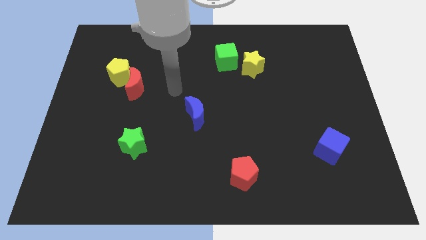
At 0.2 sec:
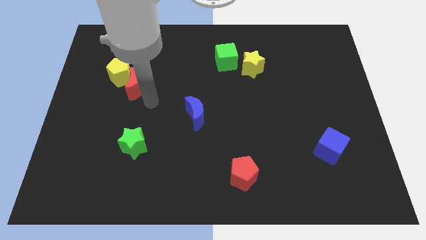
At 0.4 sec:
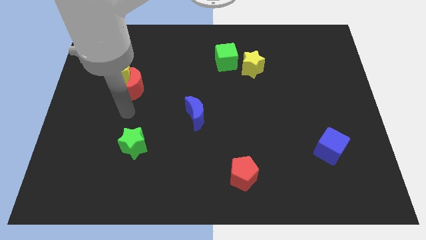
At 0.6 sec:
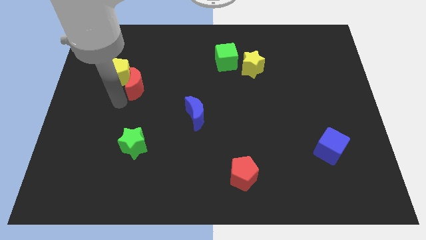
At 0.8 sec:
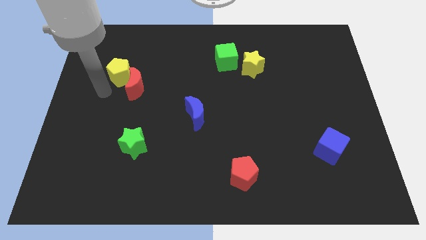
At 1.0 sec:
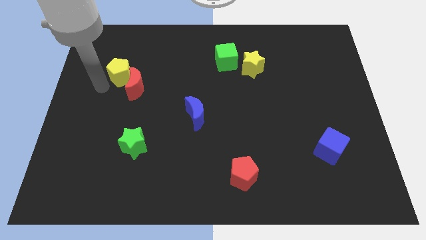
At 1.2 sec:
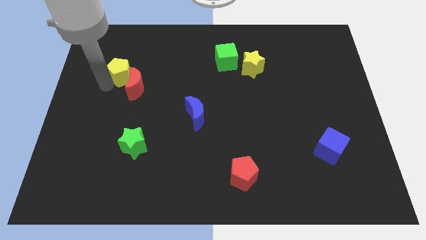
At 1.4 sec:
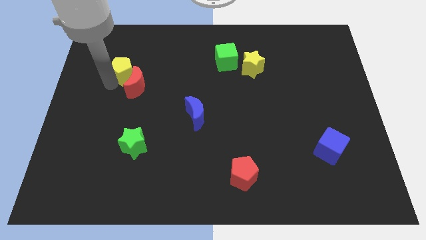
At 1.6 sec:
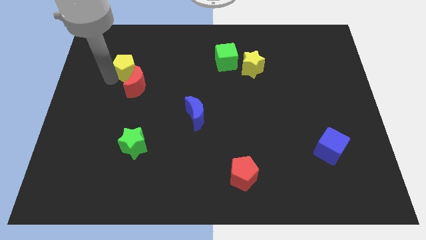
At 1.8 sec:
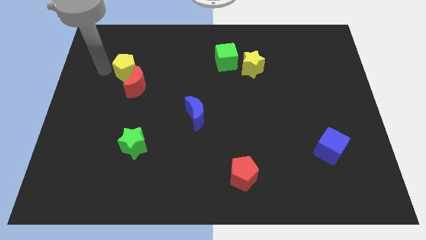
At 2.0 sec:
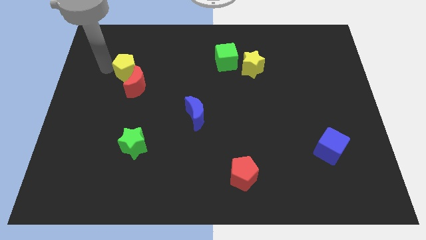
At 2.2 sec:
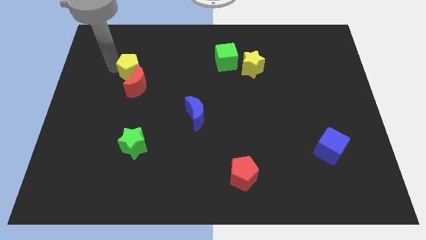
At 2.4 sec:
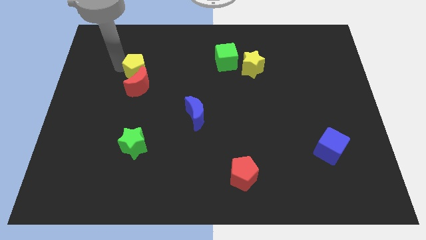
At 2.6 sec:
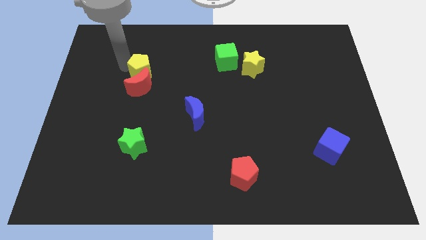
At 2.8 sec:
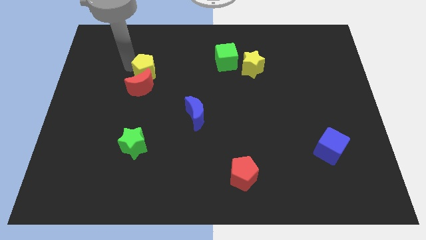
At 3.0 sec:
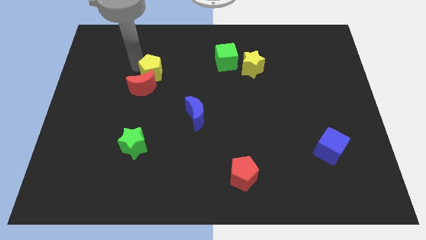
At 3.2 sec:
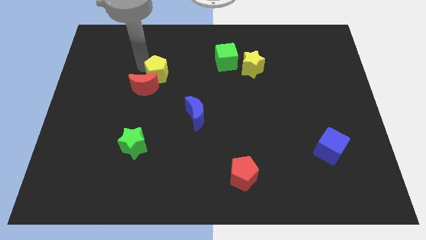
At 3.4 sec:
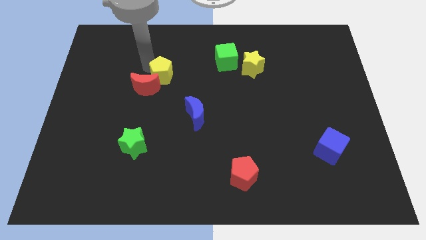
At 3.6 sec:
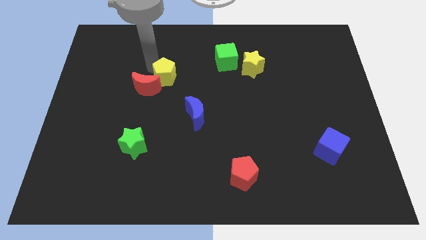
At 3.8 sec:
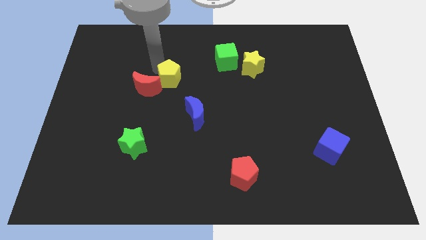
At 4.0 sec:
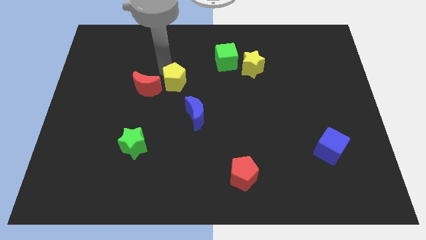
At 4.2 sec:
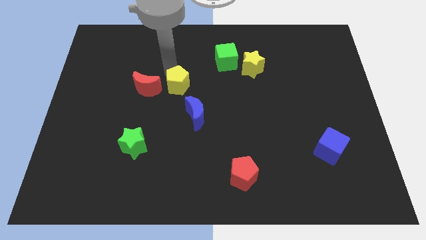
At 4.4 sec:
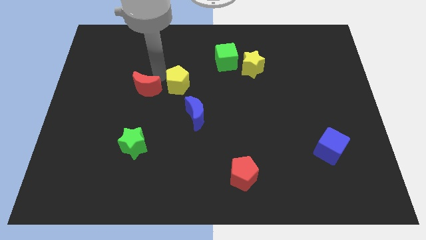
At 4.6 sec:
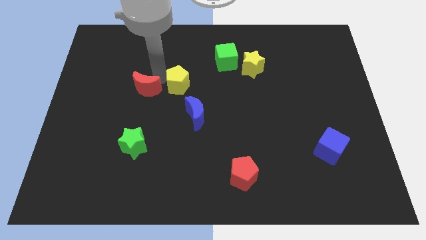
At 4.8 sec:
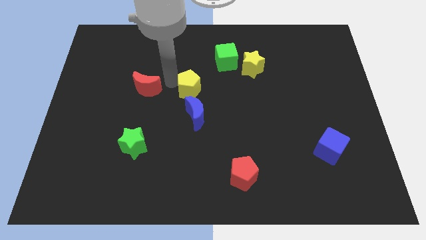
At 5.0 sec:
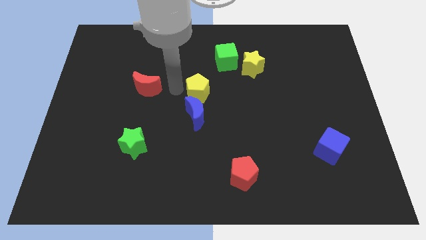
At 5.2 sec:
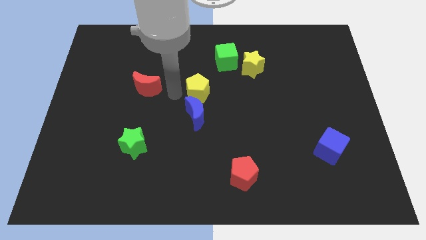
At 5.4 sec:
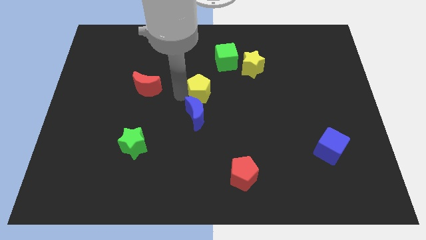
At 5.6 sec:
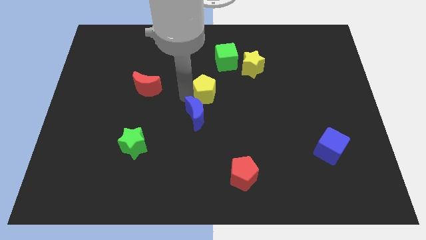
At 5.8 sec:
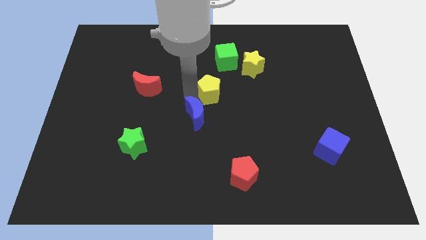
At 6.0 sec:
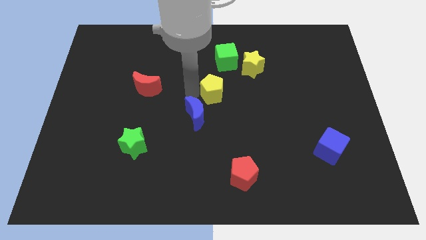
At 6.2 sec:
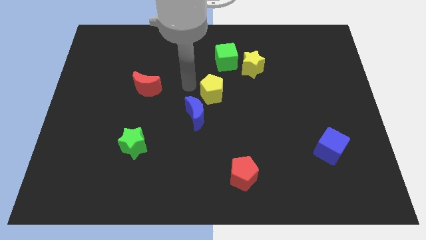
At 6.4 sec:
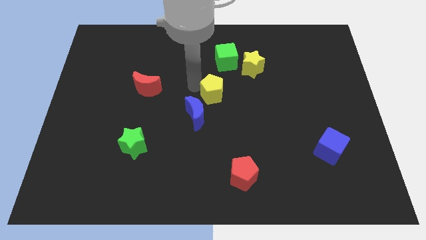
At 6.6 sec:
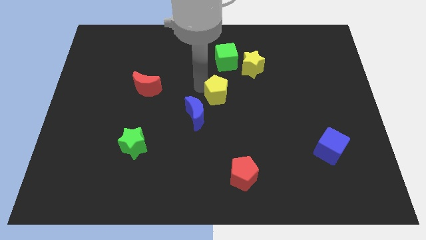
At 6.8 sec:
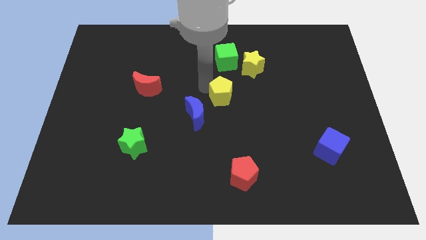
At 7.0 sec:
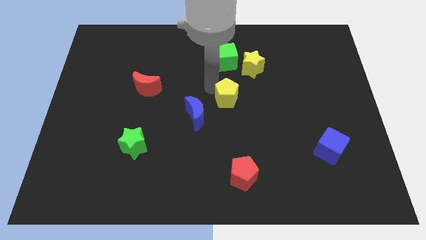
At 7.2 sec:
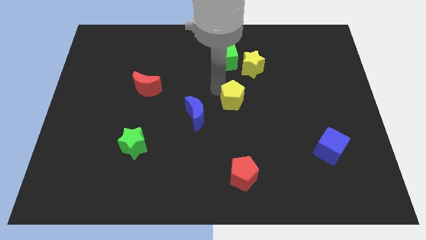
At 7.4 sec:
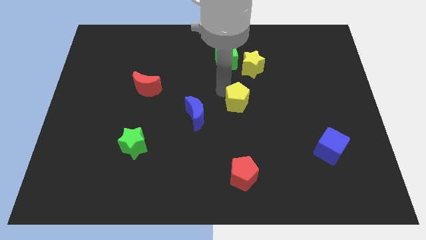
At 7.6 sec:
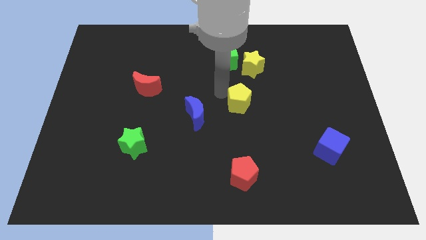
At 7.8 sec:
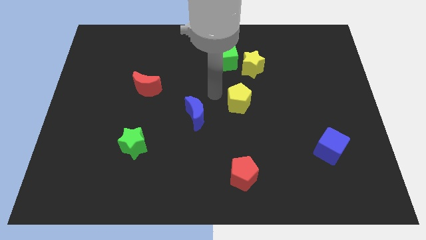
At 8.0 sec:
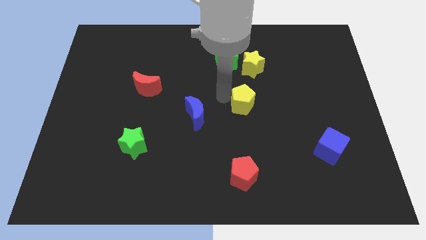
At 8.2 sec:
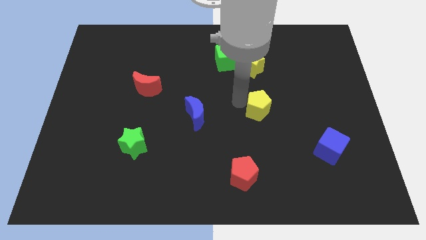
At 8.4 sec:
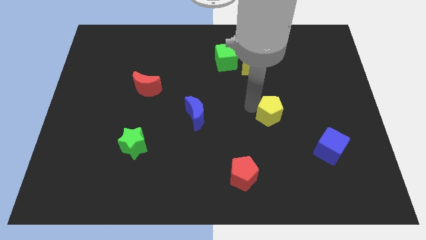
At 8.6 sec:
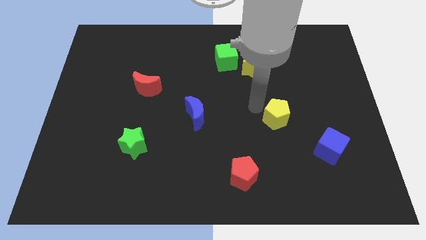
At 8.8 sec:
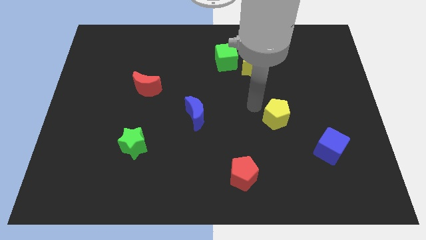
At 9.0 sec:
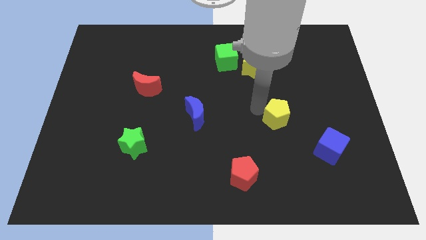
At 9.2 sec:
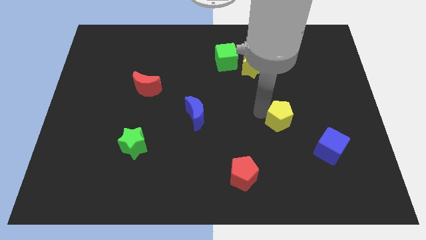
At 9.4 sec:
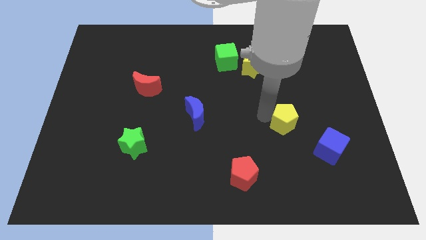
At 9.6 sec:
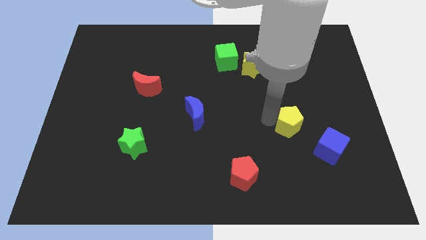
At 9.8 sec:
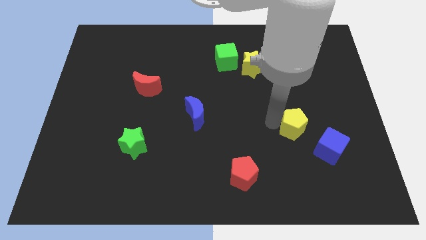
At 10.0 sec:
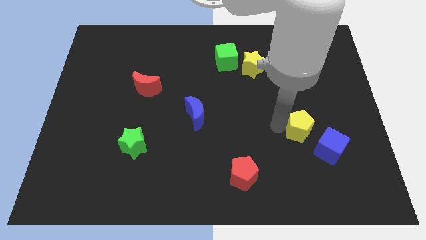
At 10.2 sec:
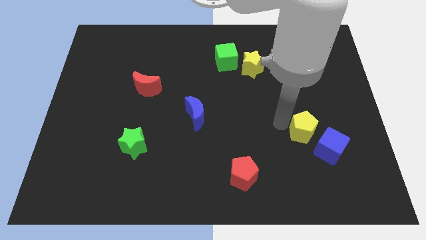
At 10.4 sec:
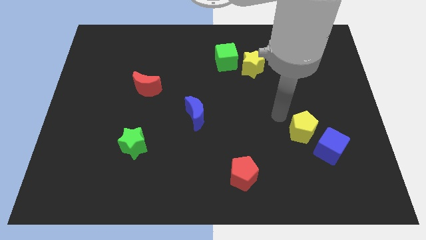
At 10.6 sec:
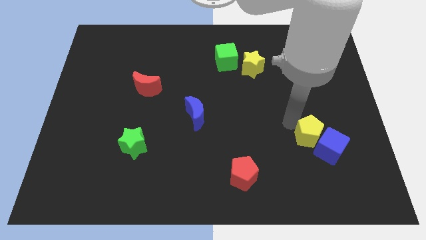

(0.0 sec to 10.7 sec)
put the yellow pentagon to the blue cube

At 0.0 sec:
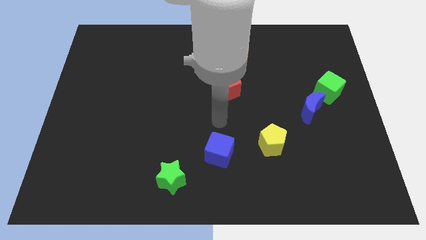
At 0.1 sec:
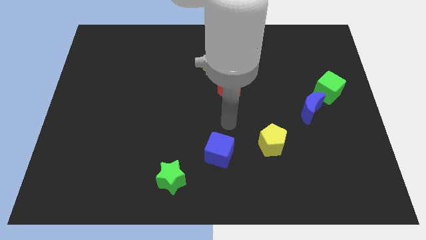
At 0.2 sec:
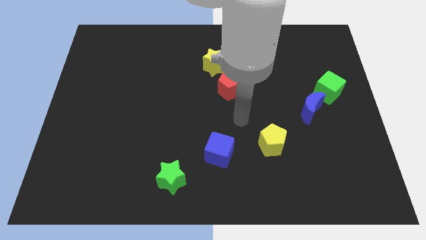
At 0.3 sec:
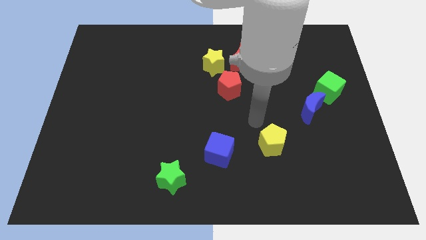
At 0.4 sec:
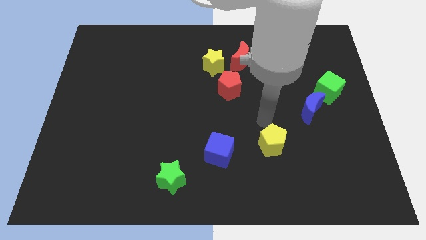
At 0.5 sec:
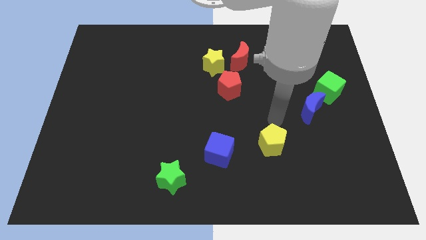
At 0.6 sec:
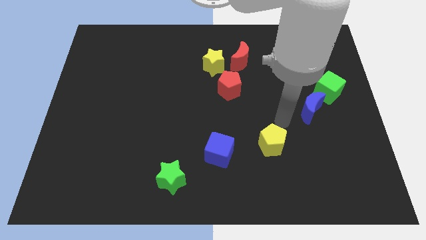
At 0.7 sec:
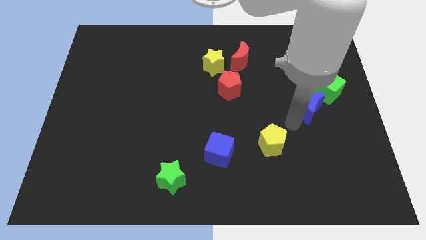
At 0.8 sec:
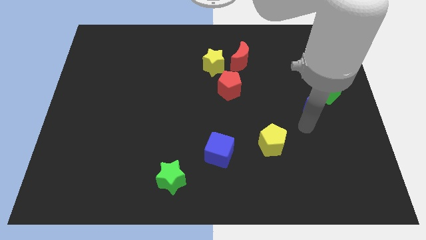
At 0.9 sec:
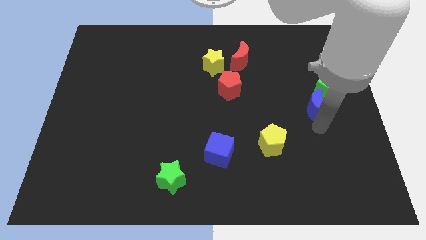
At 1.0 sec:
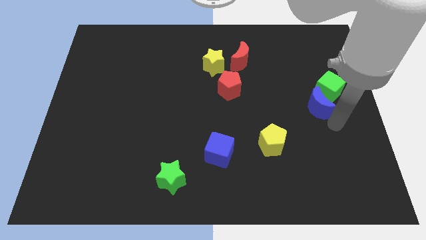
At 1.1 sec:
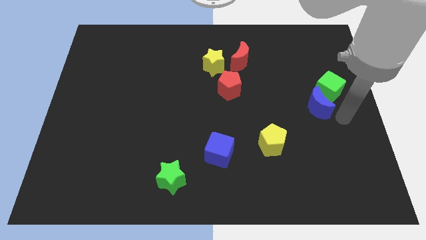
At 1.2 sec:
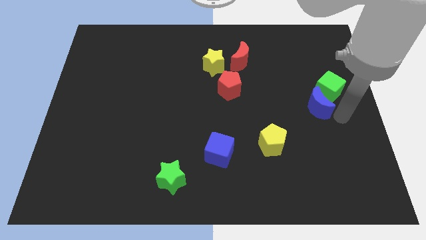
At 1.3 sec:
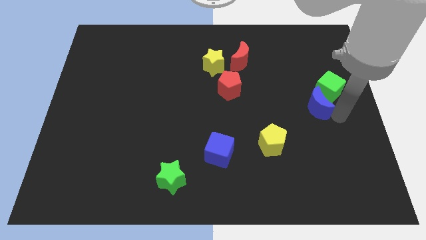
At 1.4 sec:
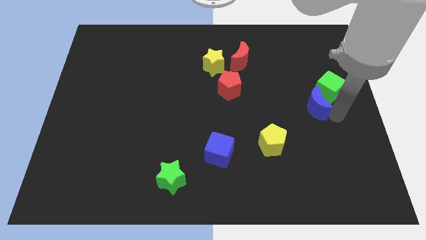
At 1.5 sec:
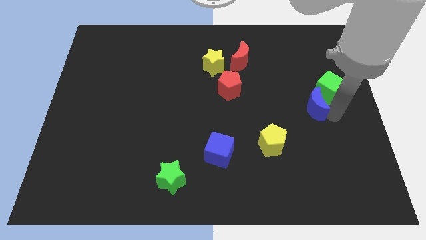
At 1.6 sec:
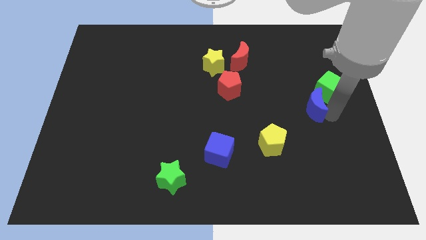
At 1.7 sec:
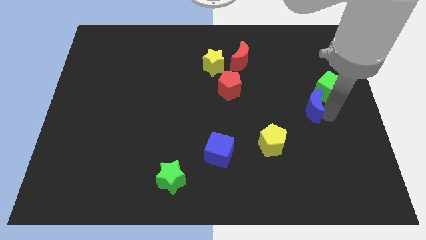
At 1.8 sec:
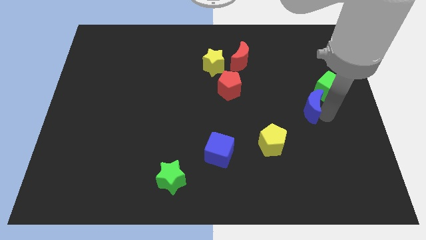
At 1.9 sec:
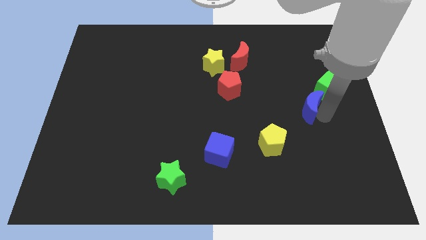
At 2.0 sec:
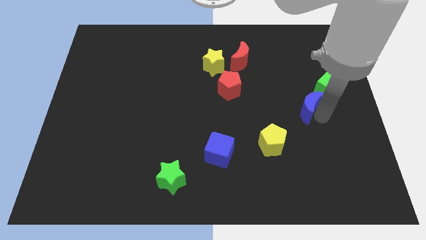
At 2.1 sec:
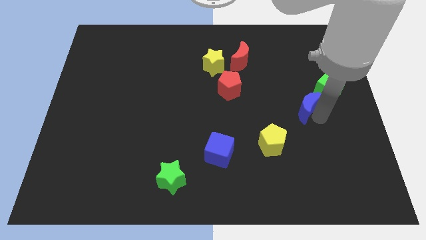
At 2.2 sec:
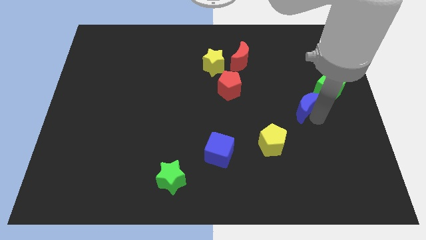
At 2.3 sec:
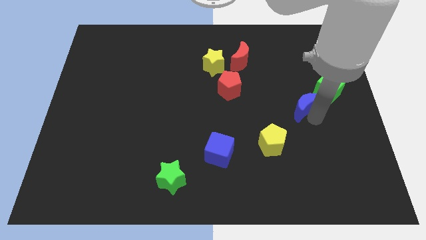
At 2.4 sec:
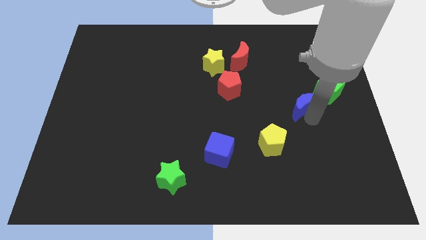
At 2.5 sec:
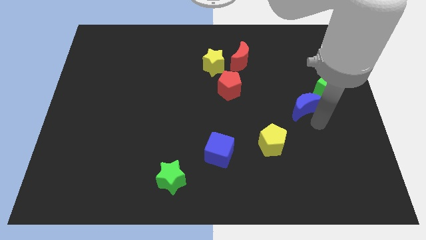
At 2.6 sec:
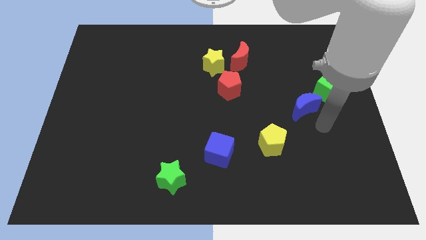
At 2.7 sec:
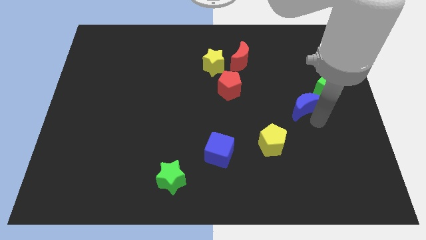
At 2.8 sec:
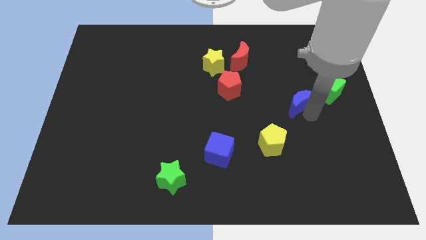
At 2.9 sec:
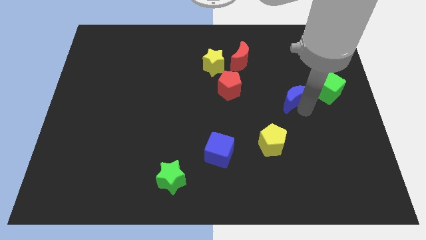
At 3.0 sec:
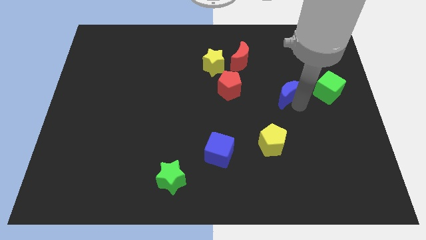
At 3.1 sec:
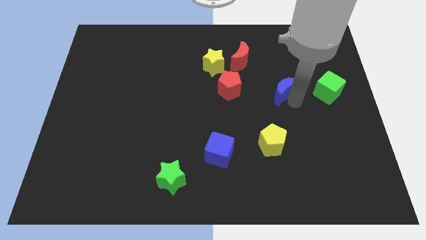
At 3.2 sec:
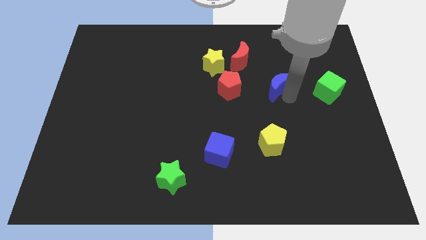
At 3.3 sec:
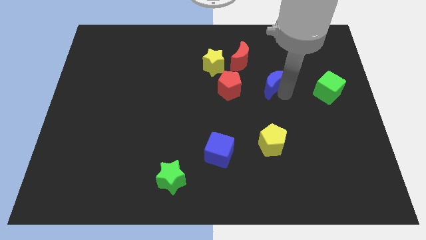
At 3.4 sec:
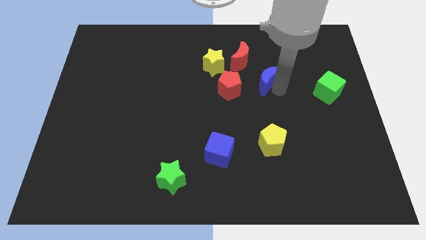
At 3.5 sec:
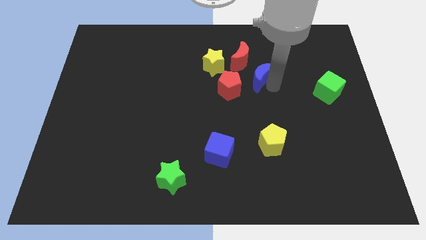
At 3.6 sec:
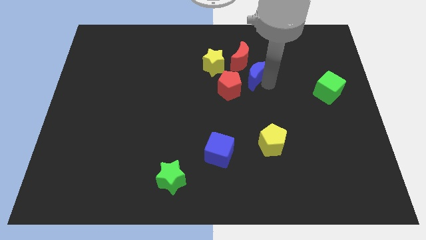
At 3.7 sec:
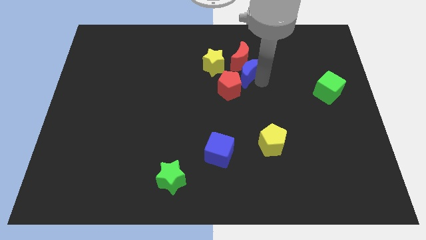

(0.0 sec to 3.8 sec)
push the blue moon to the red moon
